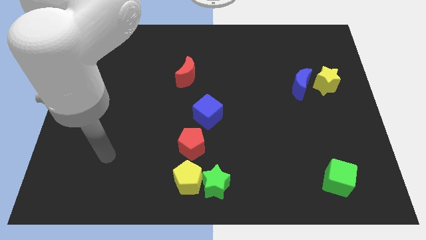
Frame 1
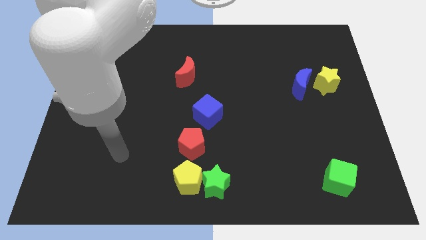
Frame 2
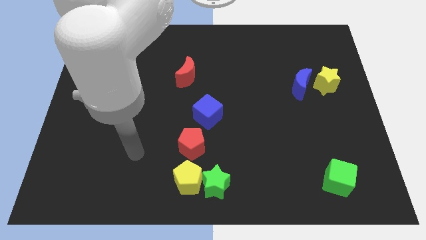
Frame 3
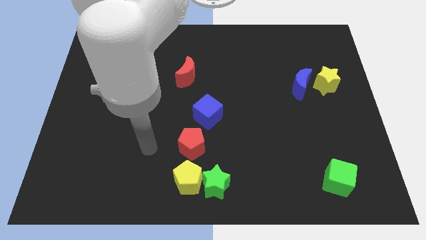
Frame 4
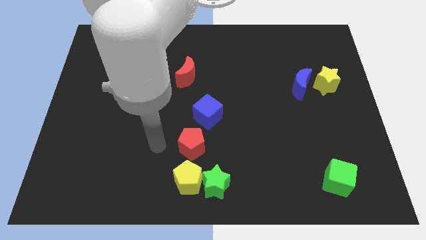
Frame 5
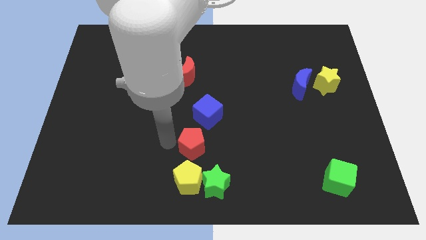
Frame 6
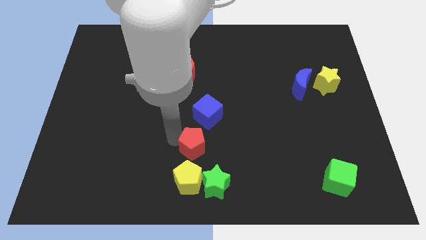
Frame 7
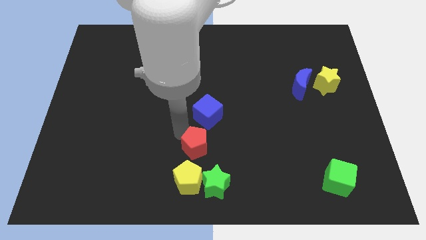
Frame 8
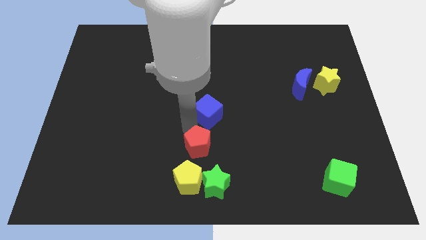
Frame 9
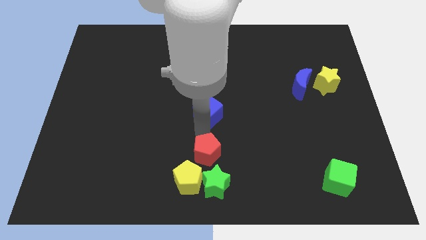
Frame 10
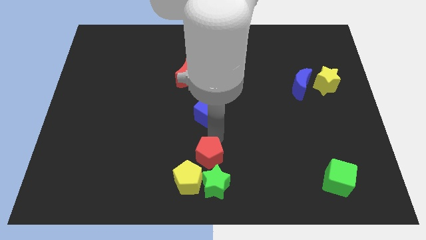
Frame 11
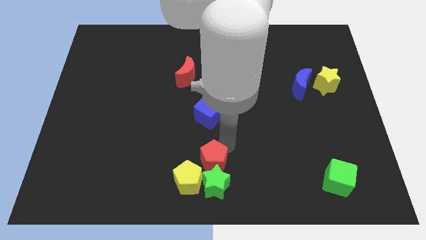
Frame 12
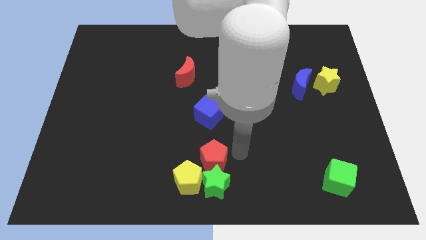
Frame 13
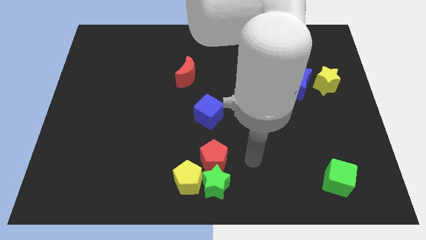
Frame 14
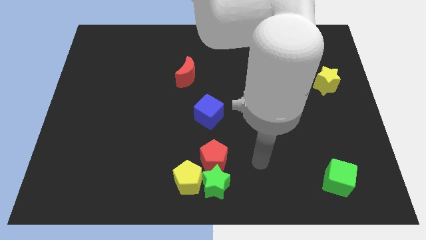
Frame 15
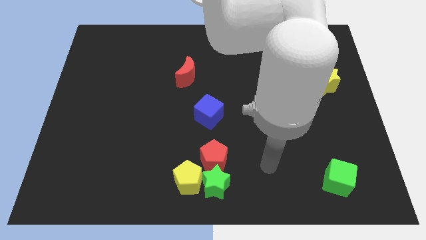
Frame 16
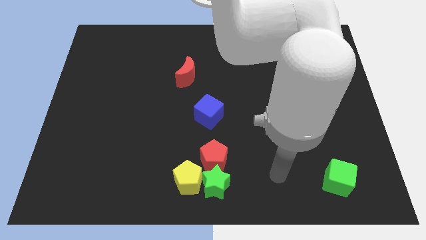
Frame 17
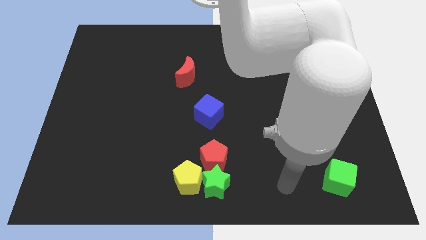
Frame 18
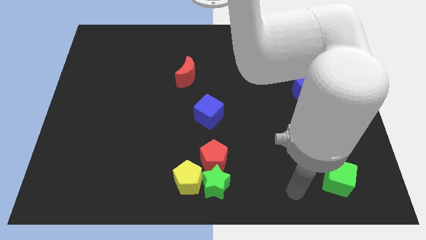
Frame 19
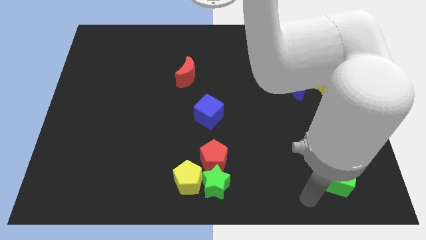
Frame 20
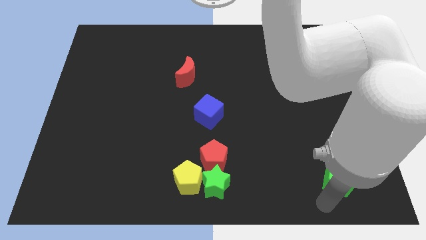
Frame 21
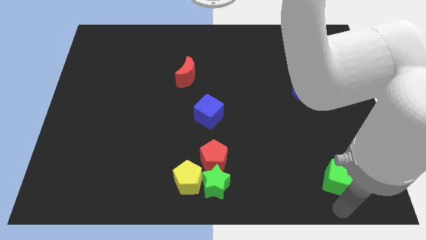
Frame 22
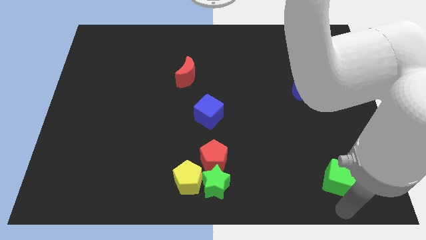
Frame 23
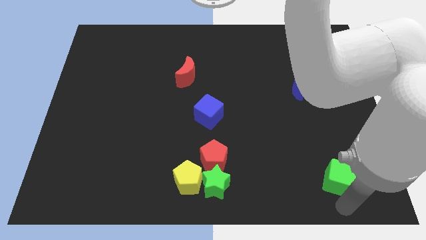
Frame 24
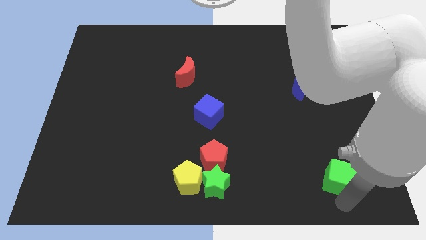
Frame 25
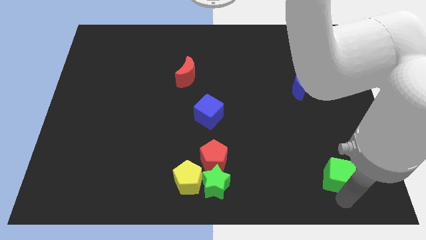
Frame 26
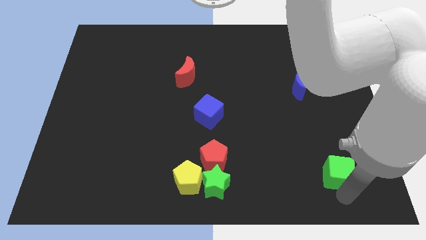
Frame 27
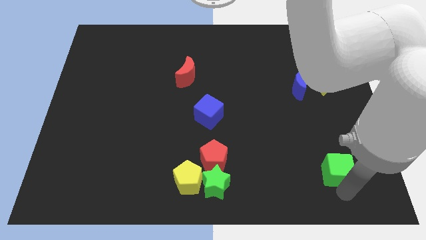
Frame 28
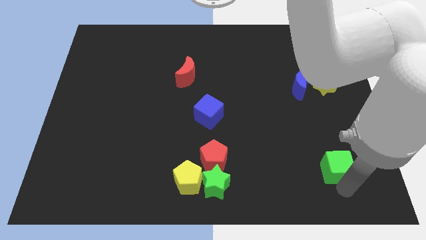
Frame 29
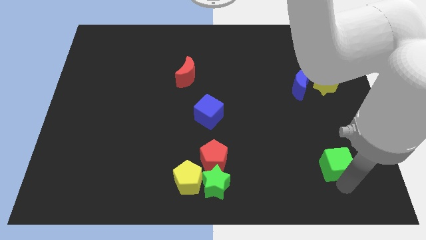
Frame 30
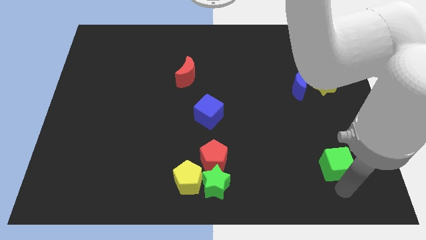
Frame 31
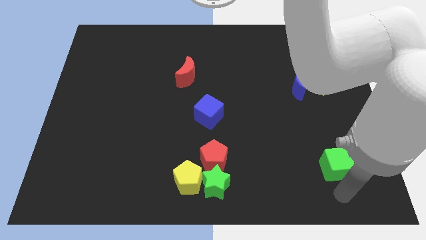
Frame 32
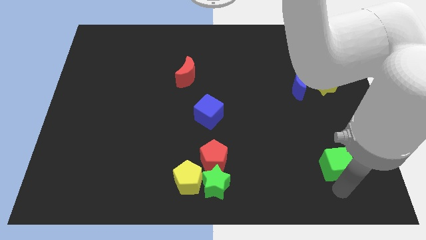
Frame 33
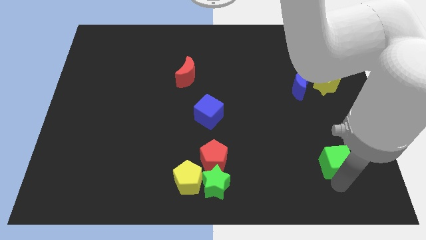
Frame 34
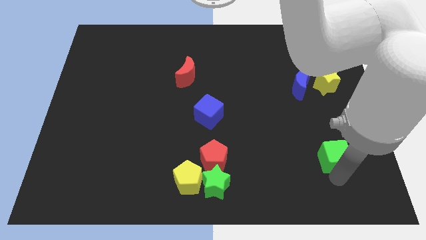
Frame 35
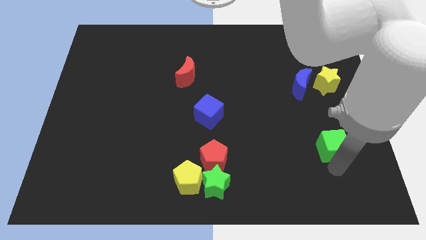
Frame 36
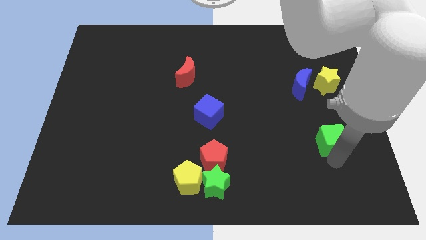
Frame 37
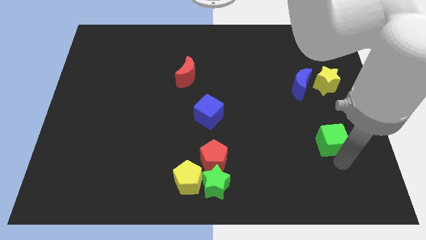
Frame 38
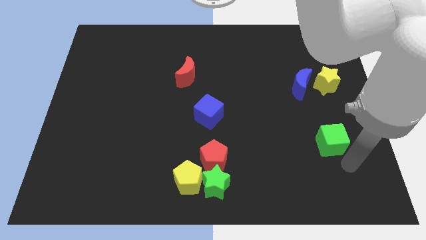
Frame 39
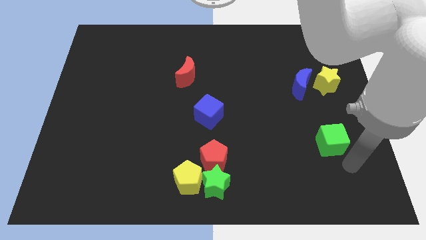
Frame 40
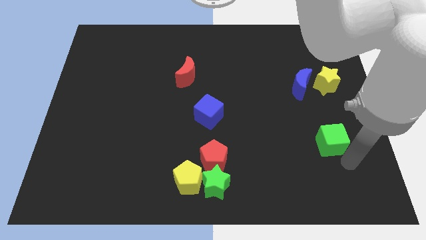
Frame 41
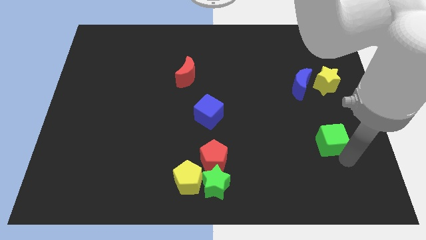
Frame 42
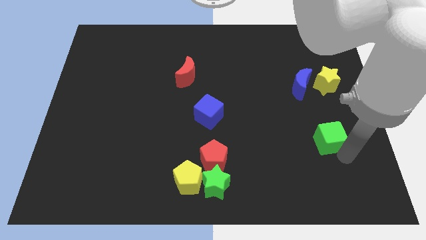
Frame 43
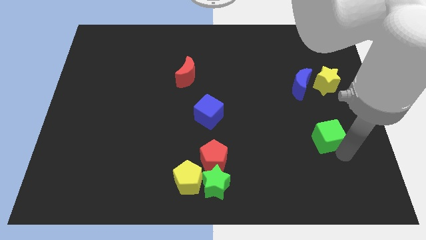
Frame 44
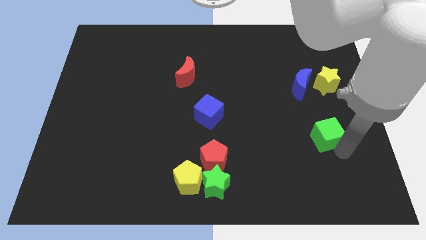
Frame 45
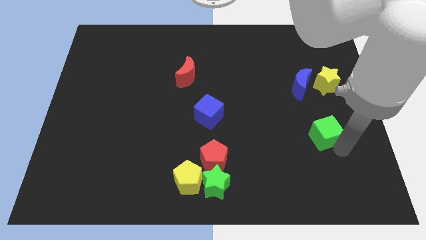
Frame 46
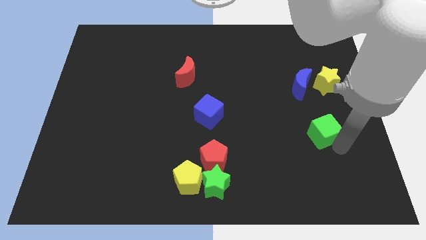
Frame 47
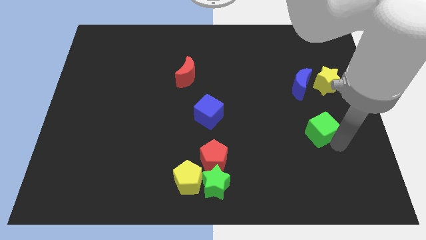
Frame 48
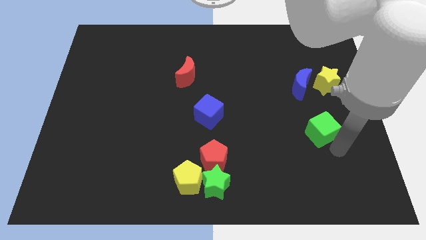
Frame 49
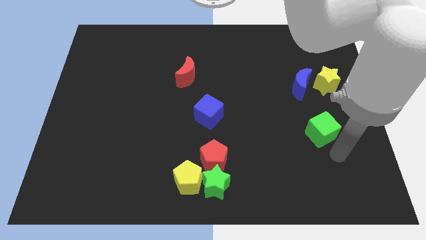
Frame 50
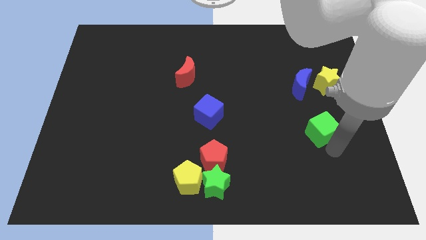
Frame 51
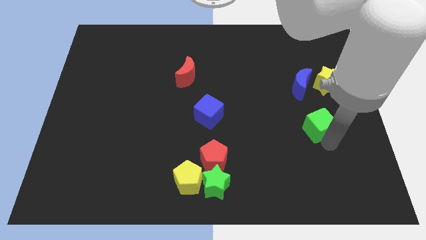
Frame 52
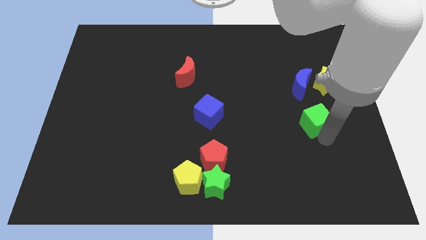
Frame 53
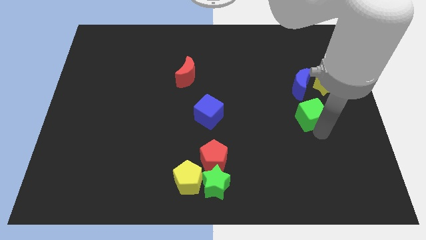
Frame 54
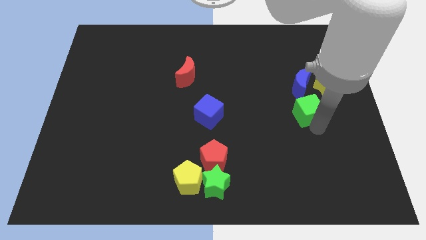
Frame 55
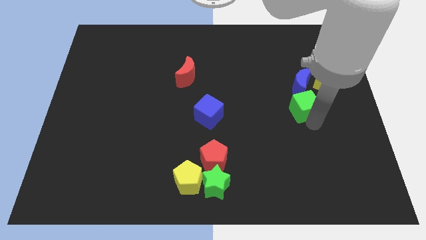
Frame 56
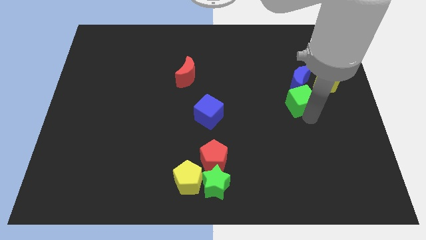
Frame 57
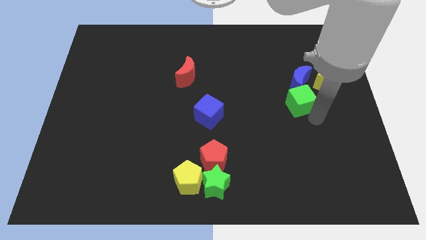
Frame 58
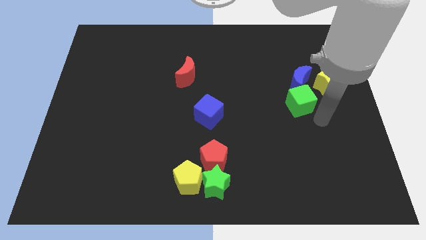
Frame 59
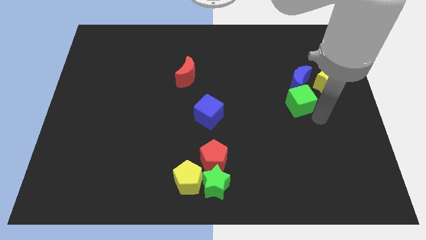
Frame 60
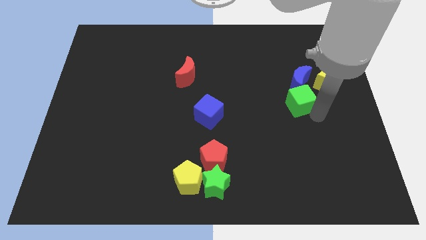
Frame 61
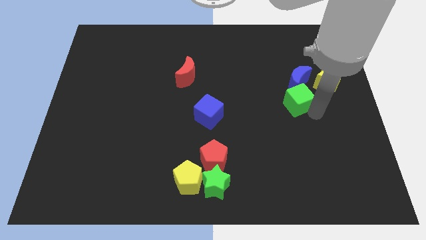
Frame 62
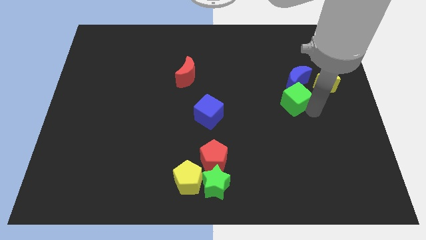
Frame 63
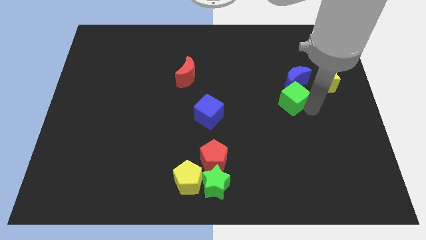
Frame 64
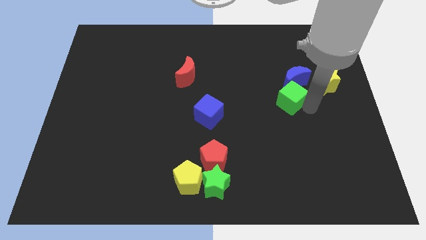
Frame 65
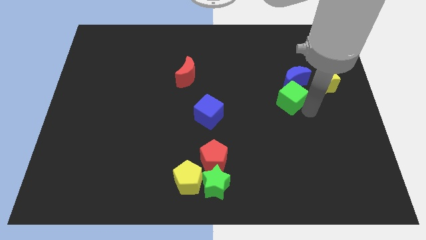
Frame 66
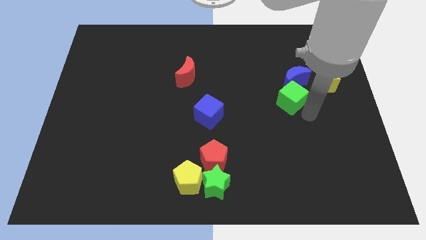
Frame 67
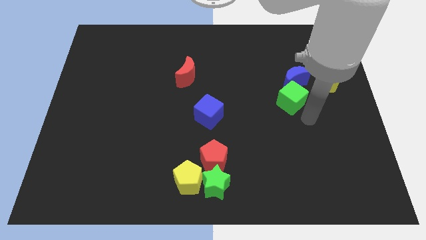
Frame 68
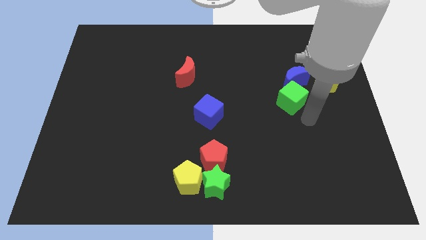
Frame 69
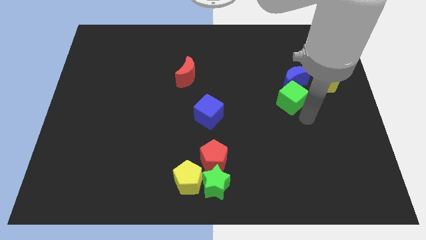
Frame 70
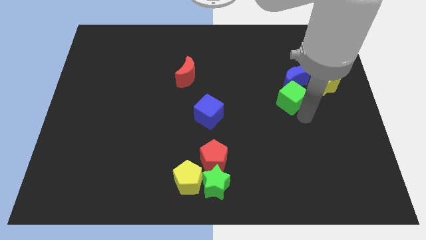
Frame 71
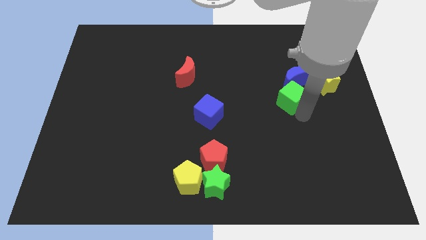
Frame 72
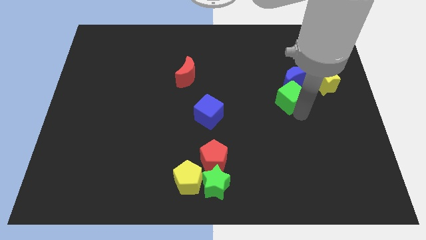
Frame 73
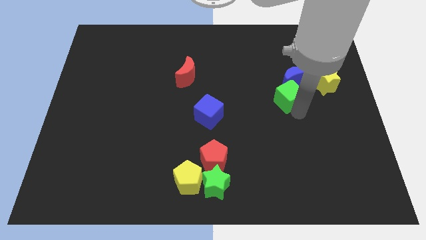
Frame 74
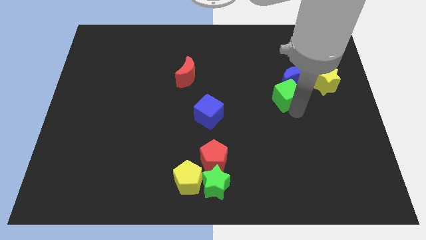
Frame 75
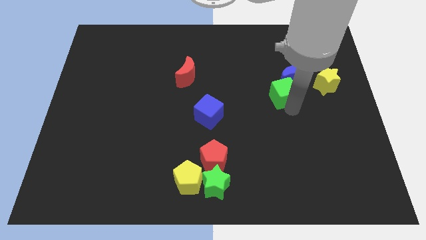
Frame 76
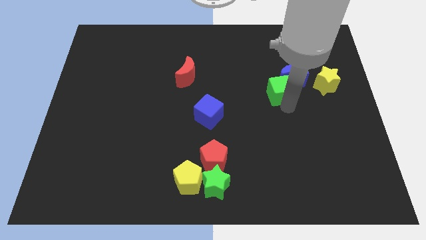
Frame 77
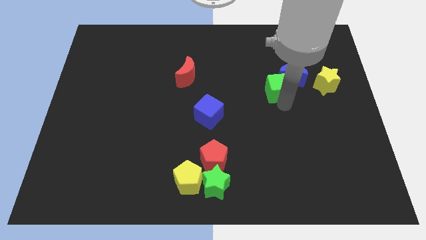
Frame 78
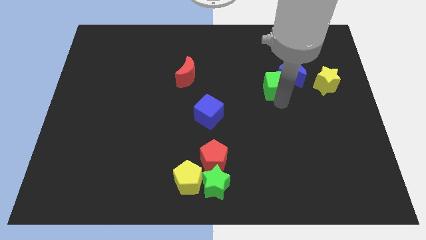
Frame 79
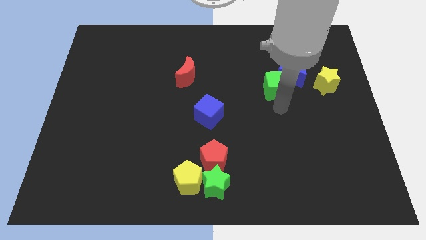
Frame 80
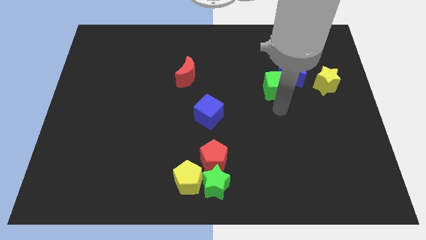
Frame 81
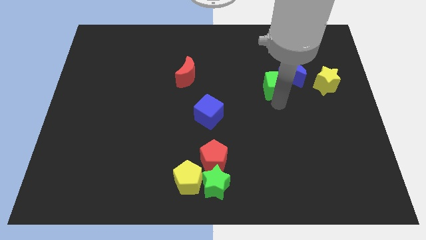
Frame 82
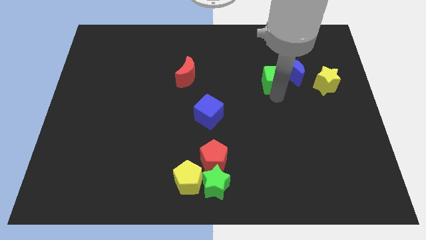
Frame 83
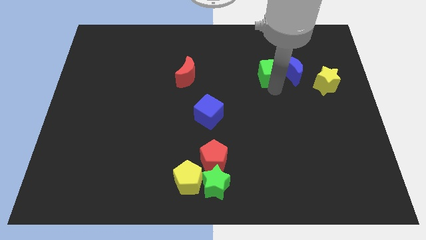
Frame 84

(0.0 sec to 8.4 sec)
move the green cube to the top left side of the blue moon
